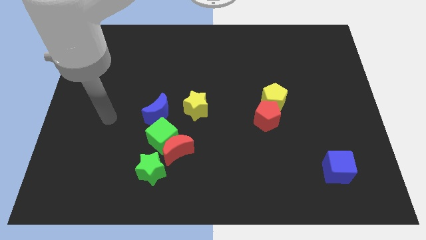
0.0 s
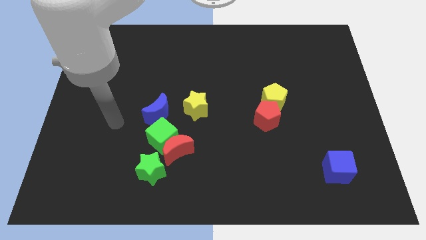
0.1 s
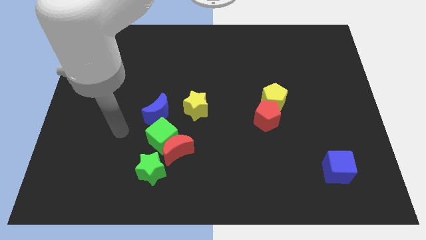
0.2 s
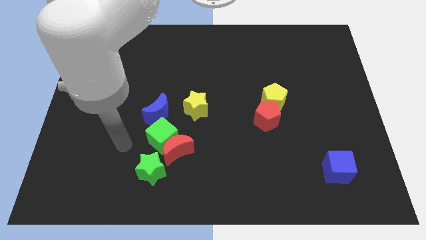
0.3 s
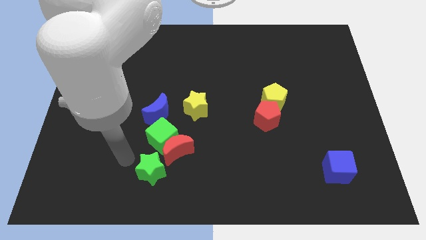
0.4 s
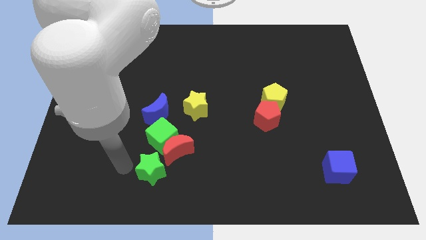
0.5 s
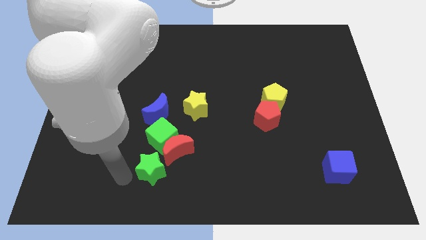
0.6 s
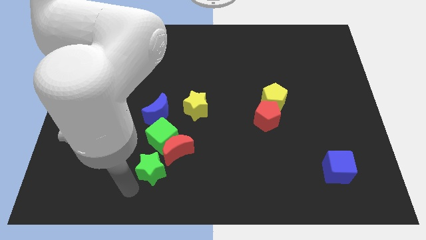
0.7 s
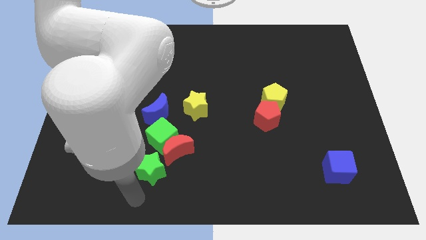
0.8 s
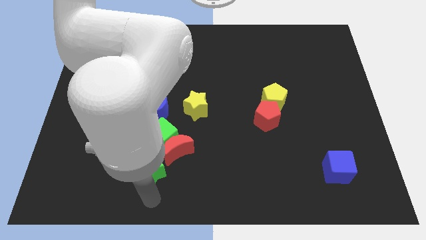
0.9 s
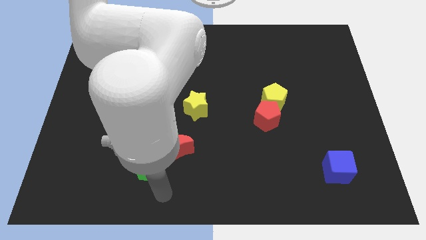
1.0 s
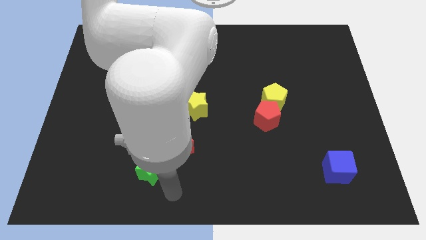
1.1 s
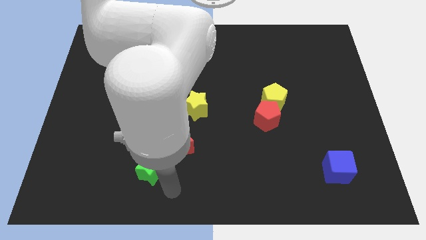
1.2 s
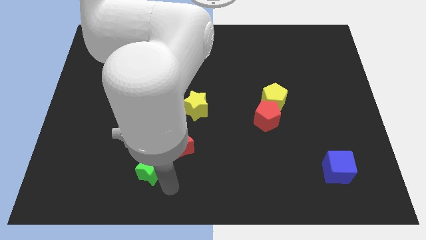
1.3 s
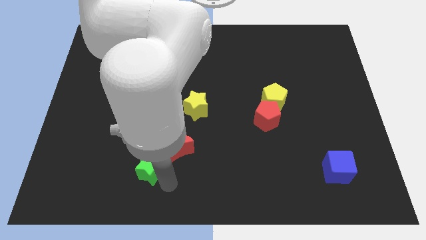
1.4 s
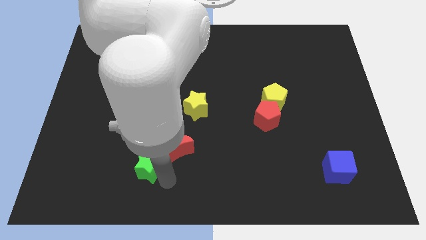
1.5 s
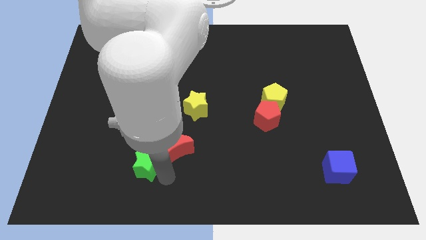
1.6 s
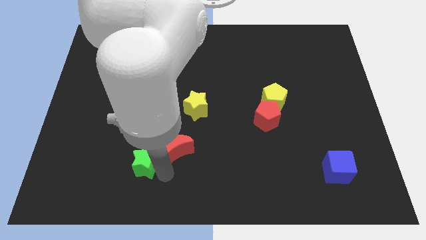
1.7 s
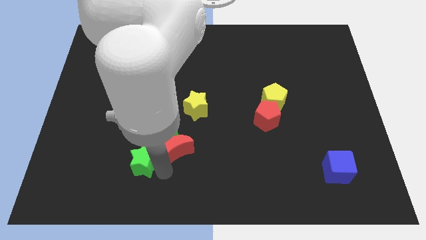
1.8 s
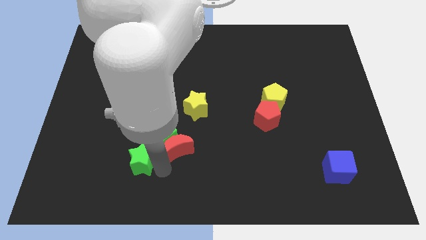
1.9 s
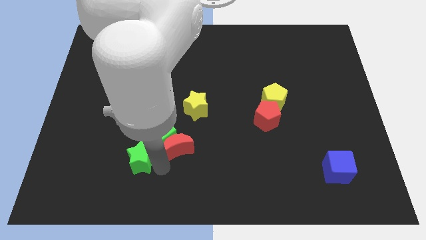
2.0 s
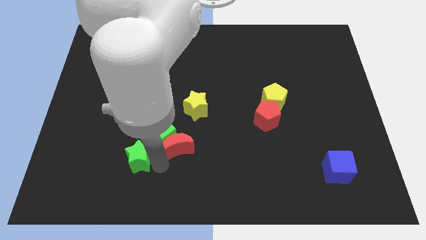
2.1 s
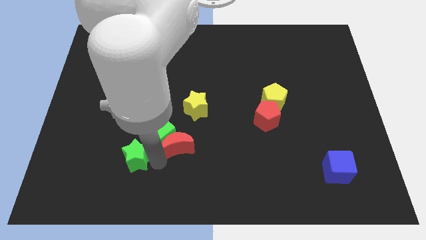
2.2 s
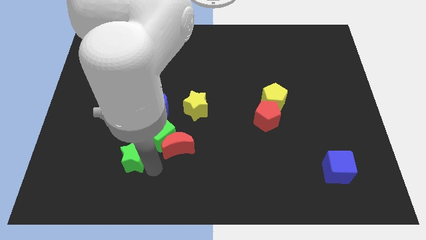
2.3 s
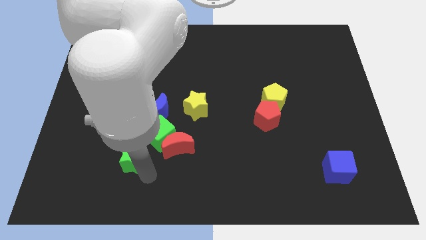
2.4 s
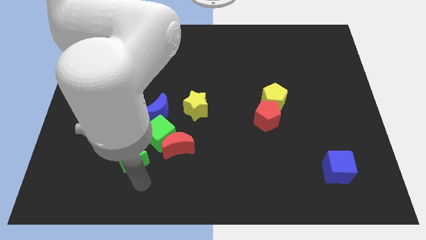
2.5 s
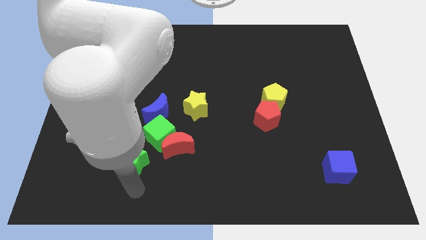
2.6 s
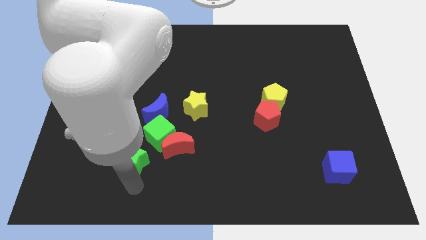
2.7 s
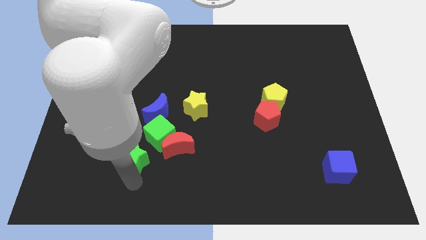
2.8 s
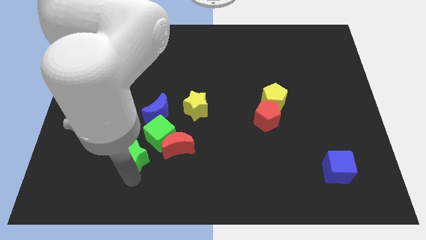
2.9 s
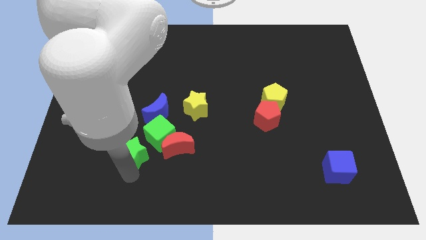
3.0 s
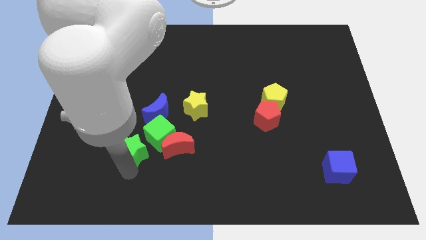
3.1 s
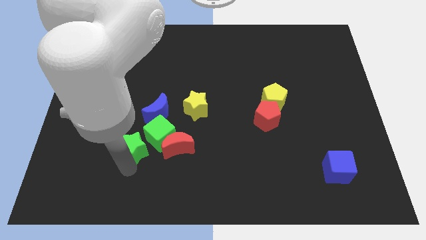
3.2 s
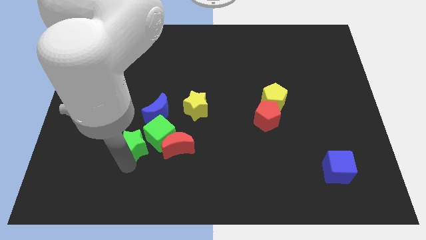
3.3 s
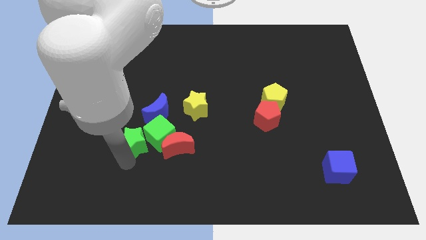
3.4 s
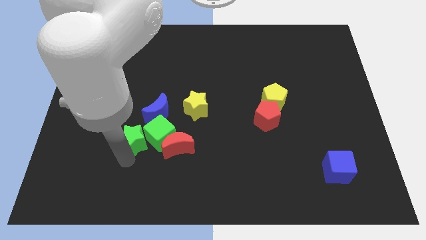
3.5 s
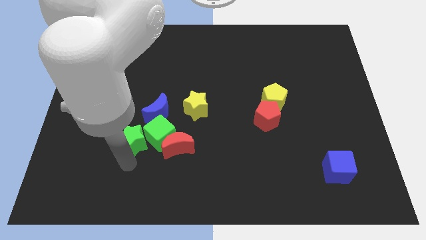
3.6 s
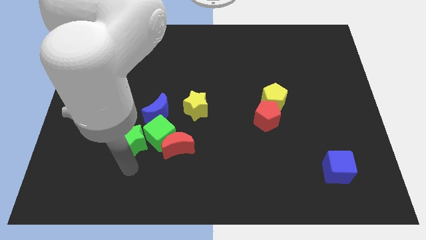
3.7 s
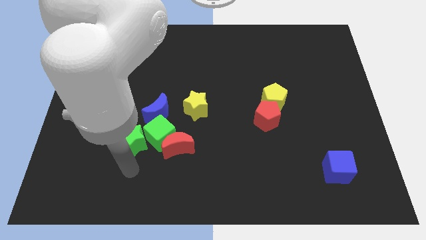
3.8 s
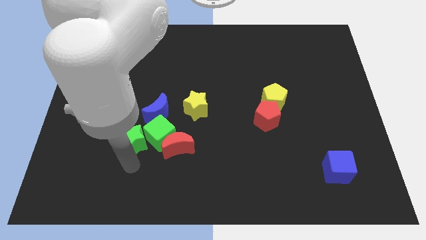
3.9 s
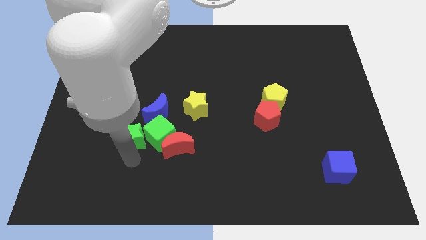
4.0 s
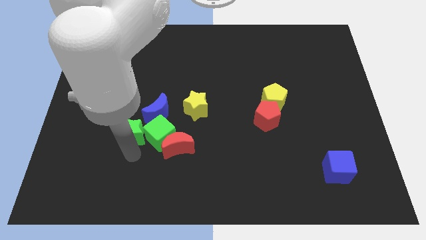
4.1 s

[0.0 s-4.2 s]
move the green star a little bit upwards

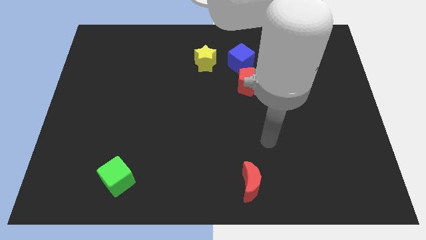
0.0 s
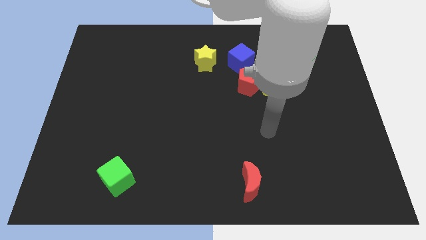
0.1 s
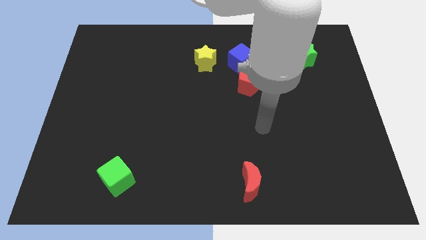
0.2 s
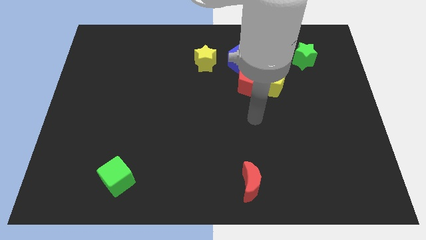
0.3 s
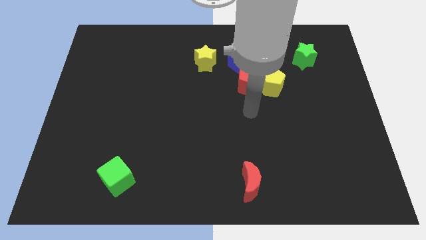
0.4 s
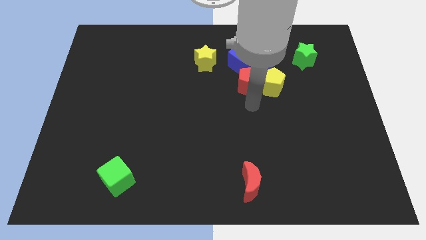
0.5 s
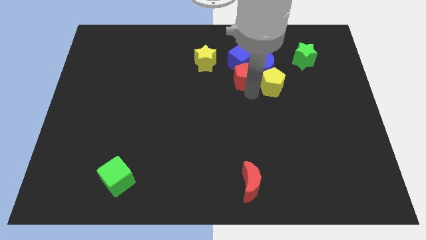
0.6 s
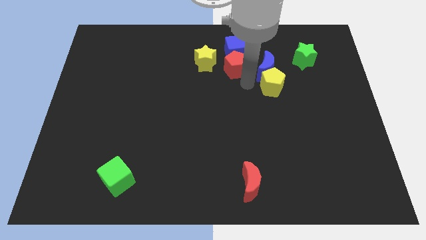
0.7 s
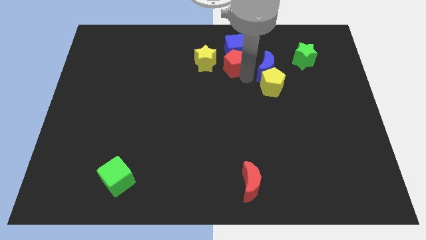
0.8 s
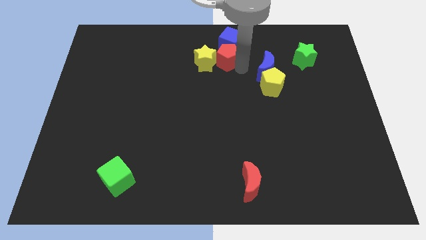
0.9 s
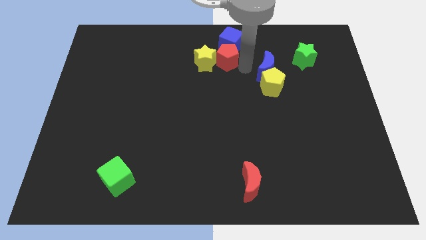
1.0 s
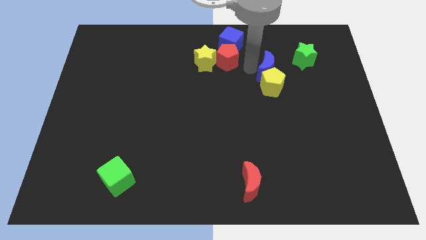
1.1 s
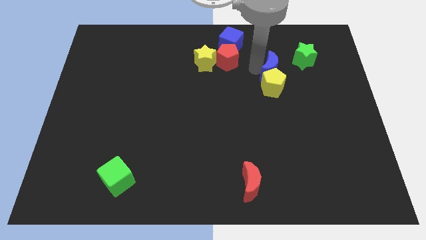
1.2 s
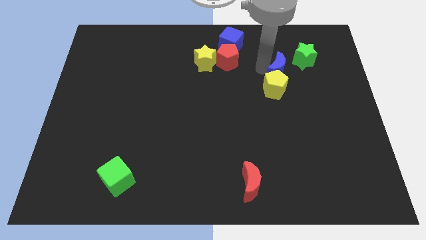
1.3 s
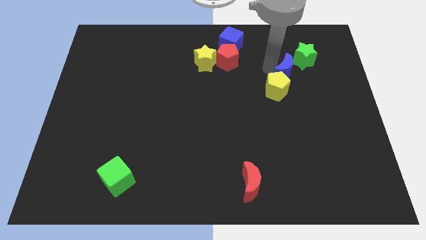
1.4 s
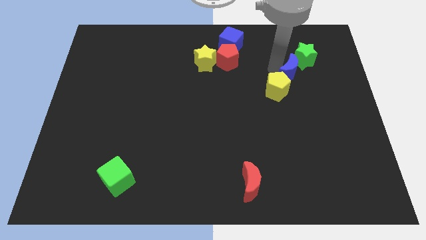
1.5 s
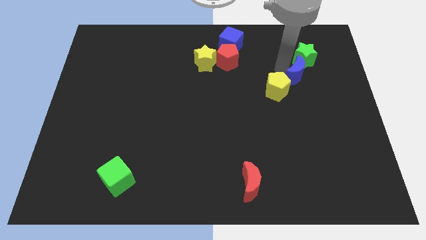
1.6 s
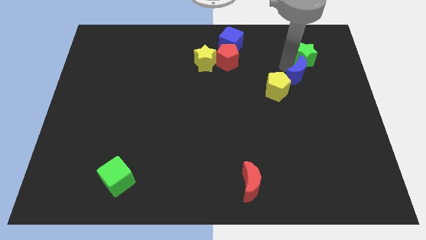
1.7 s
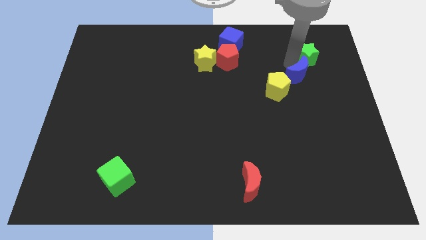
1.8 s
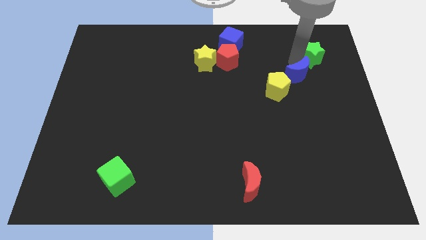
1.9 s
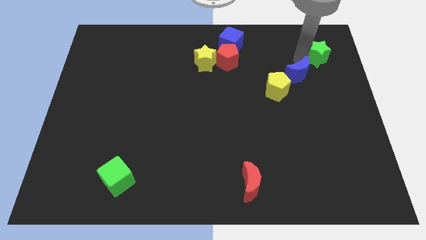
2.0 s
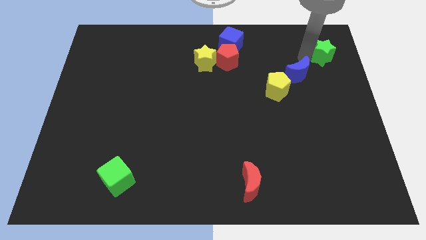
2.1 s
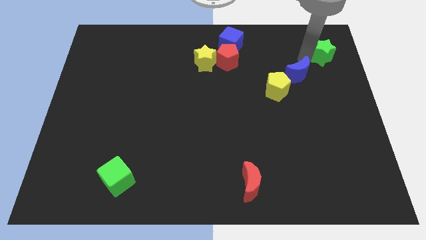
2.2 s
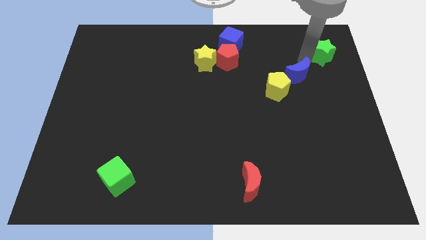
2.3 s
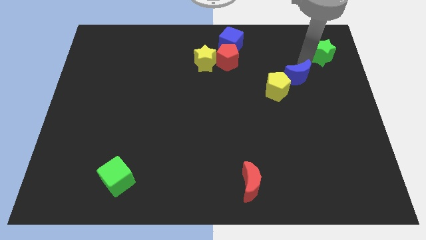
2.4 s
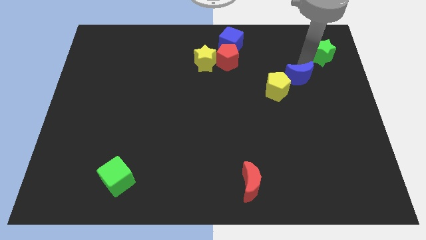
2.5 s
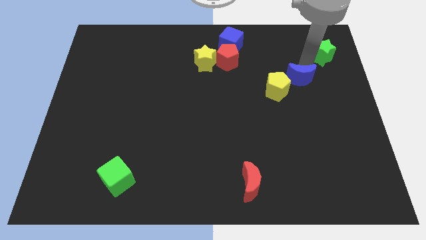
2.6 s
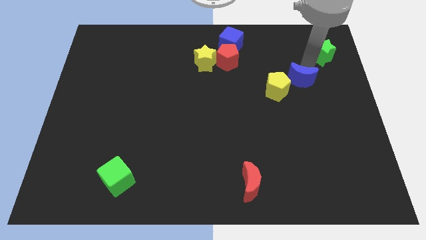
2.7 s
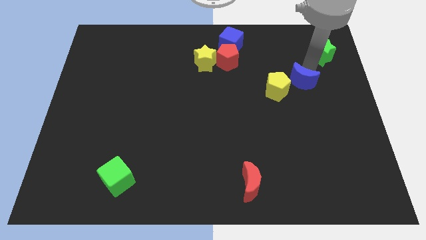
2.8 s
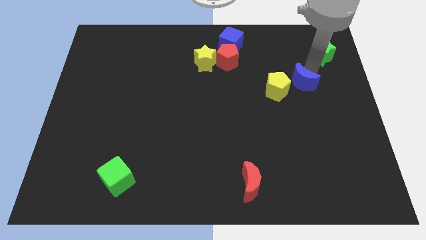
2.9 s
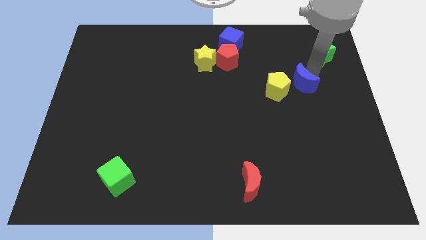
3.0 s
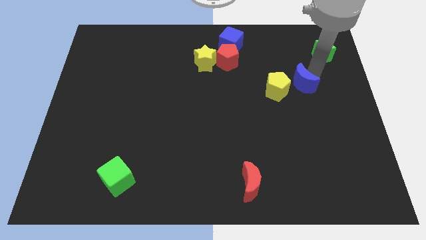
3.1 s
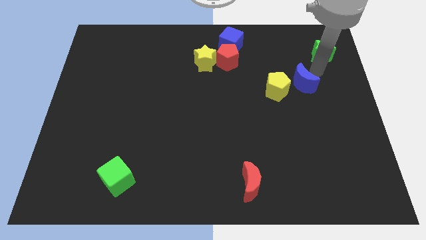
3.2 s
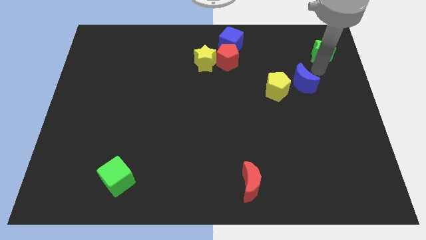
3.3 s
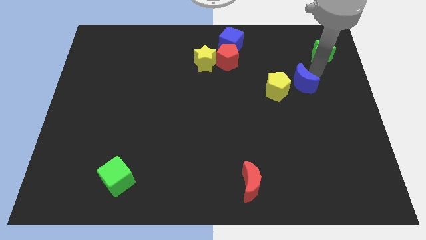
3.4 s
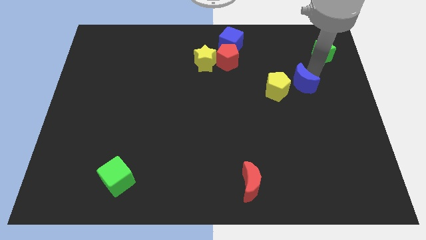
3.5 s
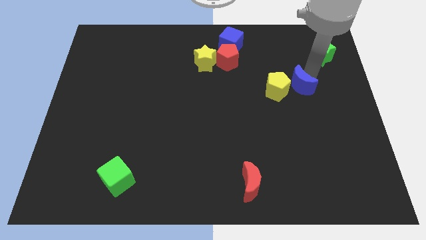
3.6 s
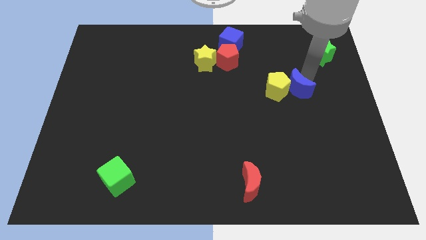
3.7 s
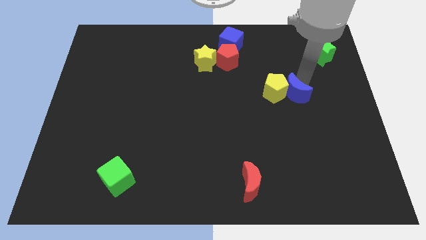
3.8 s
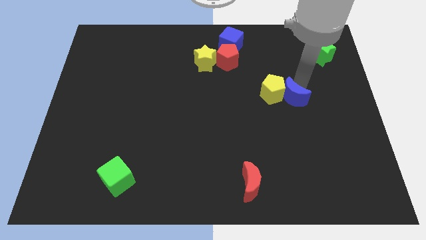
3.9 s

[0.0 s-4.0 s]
slightly move the blue moon down
